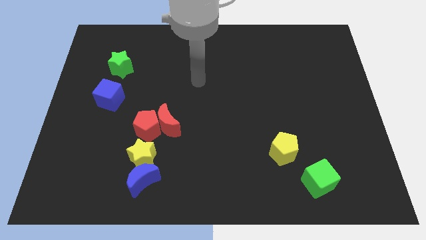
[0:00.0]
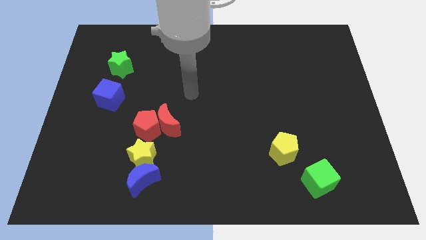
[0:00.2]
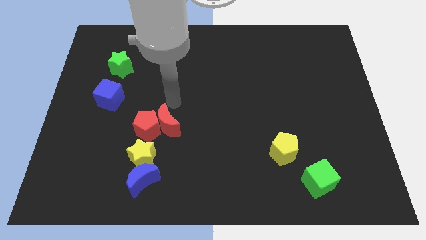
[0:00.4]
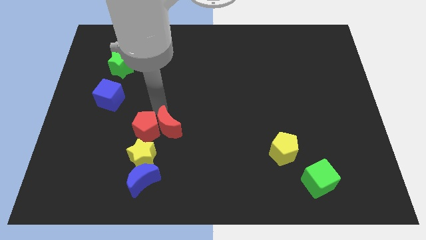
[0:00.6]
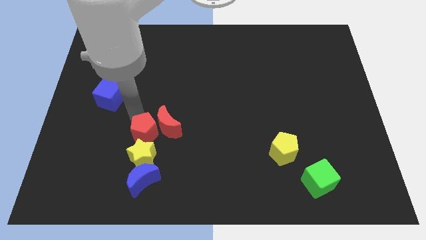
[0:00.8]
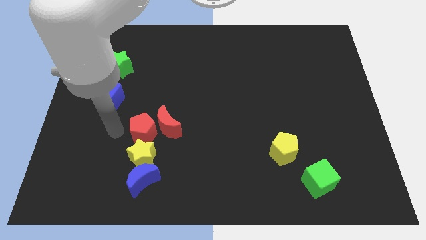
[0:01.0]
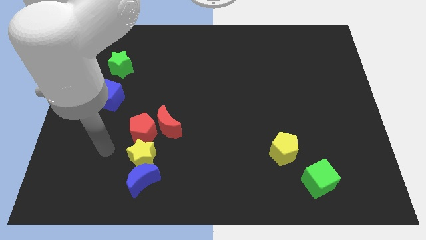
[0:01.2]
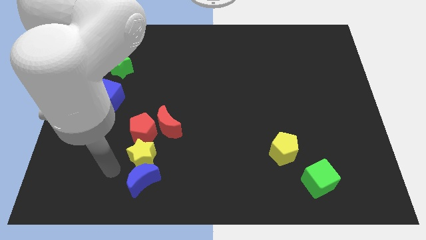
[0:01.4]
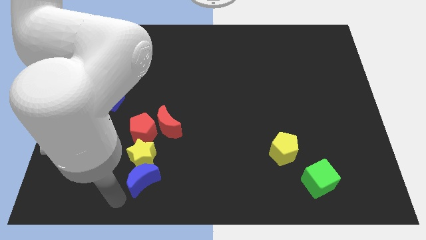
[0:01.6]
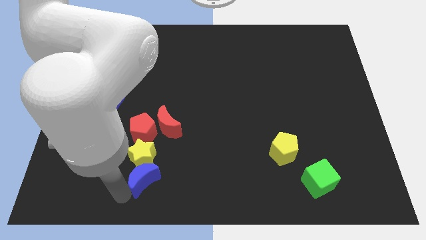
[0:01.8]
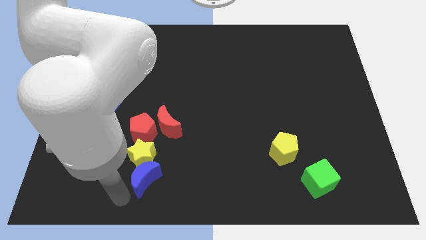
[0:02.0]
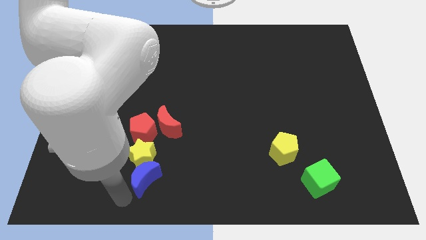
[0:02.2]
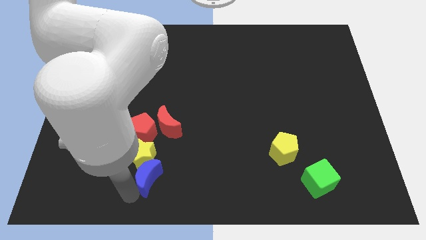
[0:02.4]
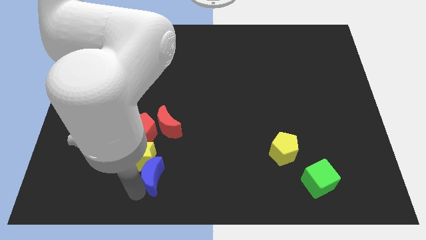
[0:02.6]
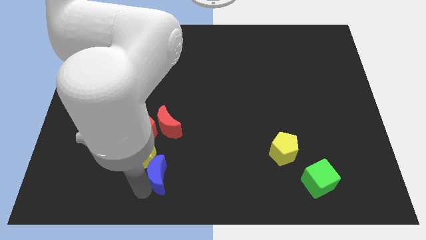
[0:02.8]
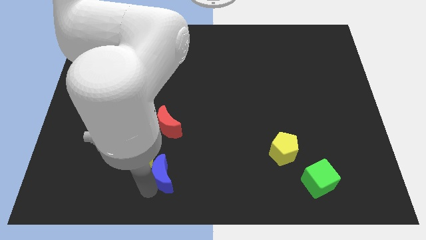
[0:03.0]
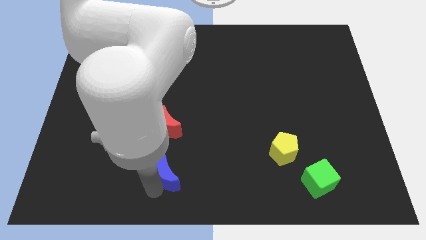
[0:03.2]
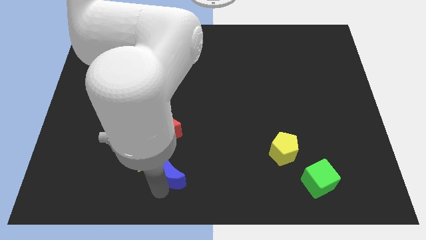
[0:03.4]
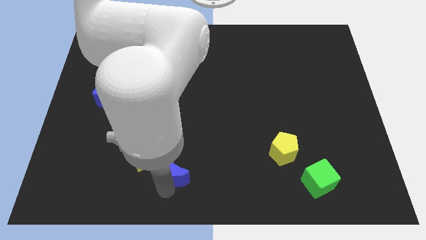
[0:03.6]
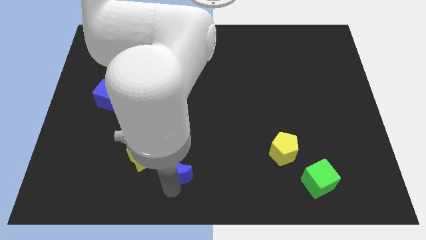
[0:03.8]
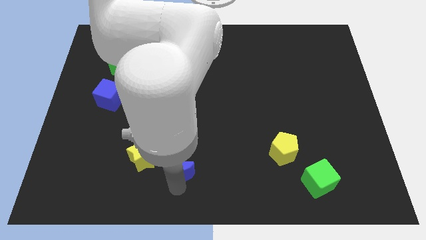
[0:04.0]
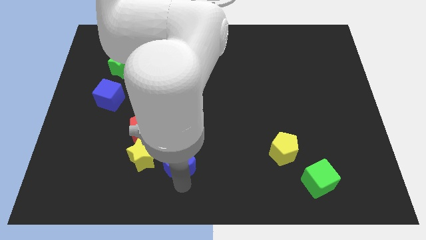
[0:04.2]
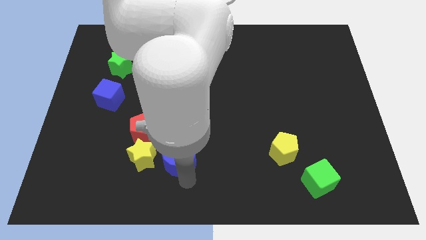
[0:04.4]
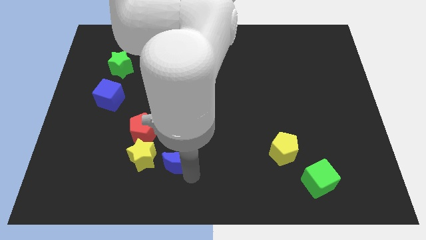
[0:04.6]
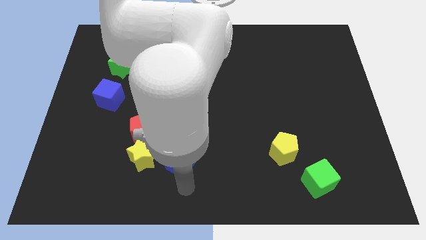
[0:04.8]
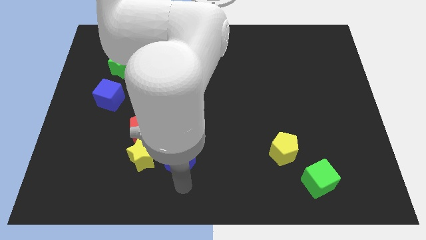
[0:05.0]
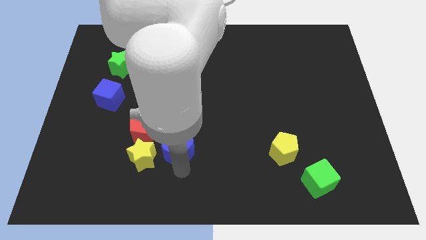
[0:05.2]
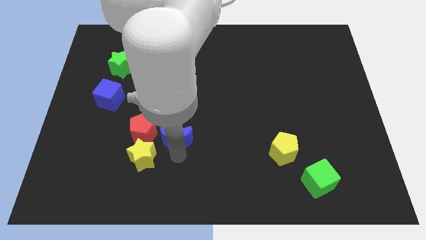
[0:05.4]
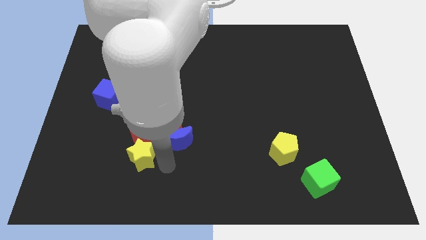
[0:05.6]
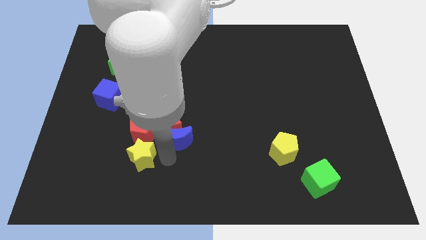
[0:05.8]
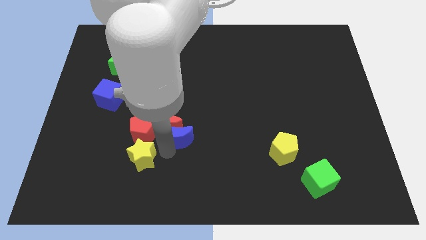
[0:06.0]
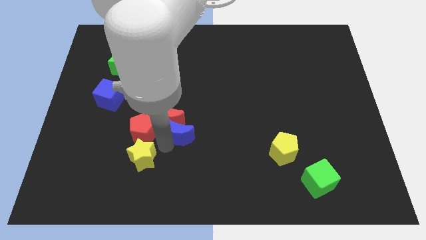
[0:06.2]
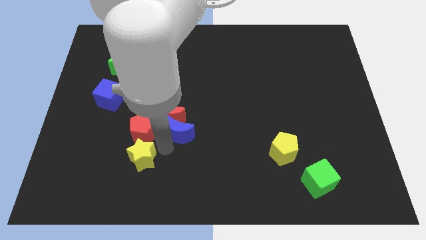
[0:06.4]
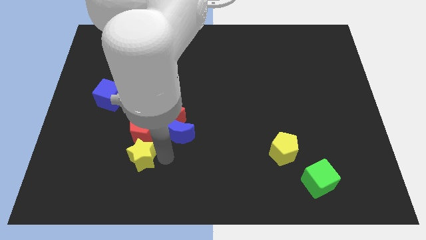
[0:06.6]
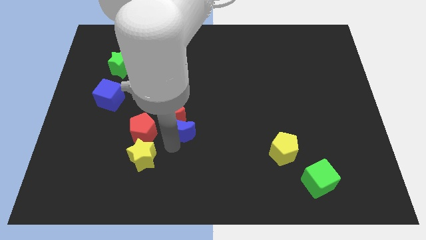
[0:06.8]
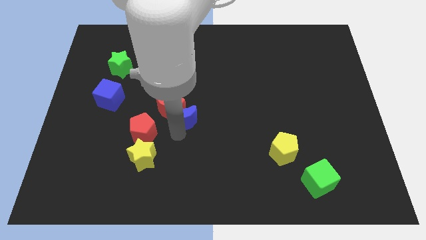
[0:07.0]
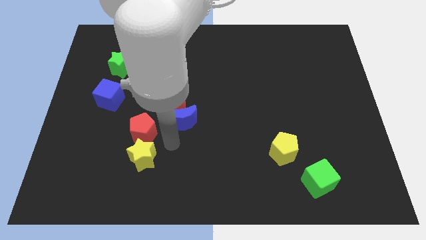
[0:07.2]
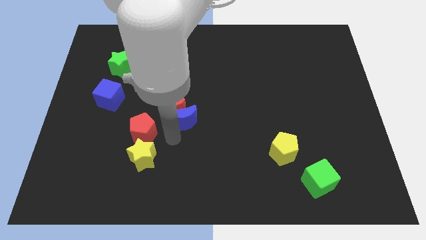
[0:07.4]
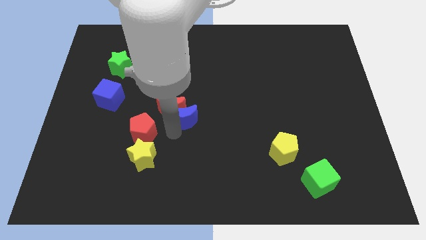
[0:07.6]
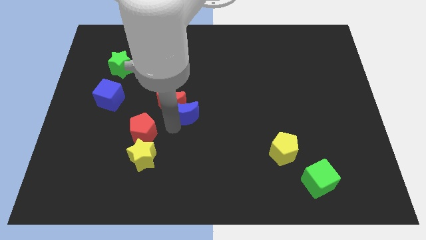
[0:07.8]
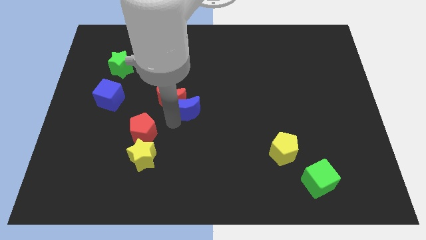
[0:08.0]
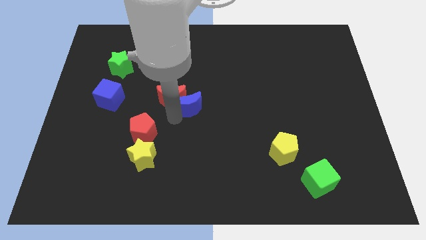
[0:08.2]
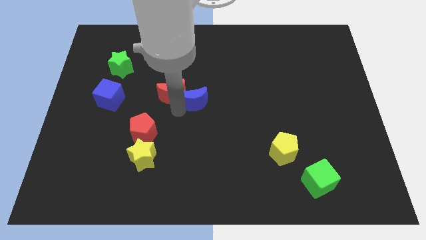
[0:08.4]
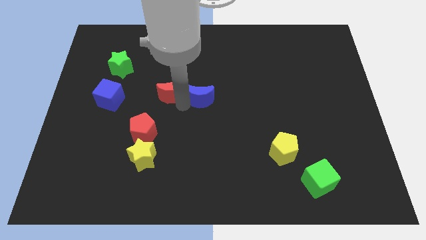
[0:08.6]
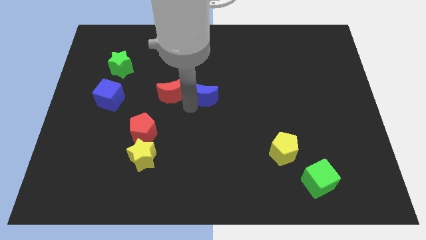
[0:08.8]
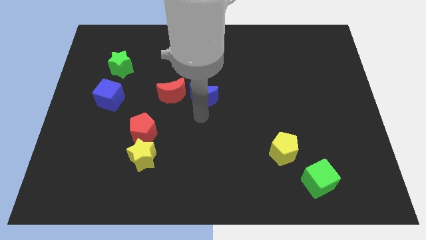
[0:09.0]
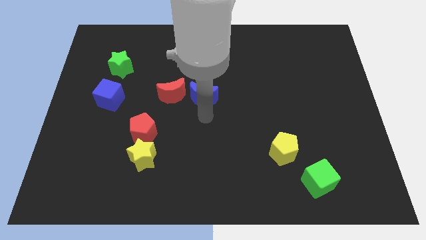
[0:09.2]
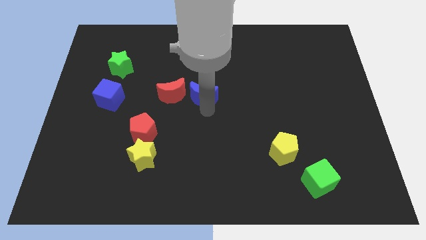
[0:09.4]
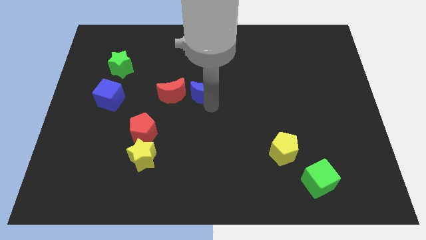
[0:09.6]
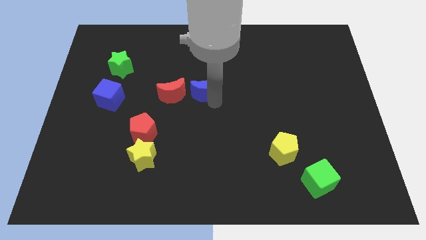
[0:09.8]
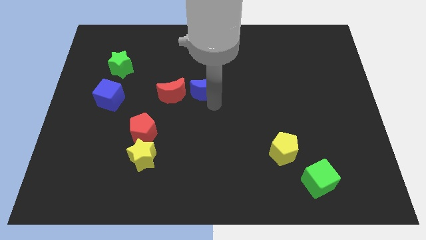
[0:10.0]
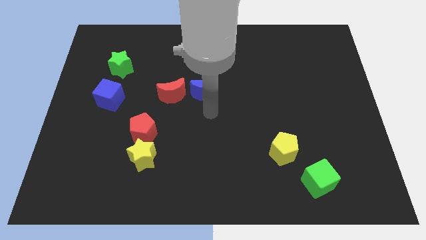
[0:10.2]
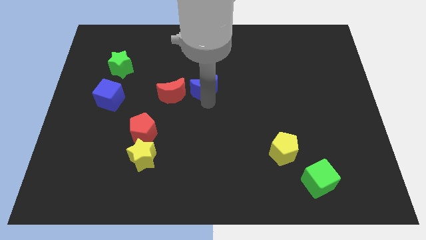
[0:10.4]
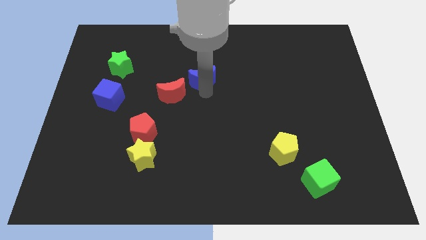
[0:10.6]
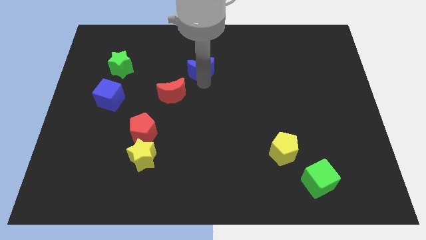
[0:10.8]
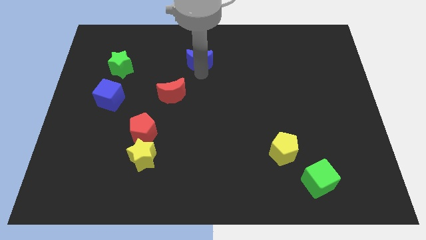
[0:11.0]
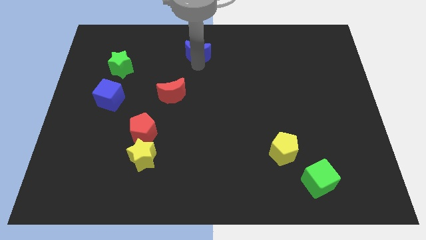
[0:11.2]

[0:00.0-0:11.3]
move the blue moon to the top

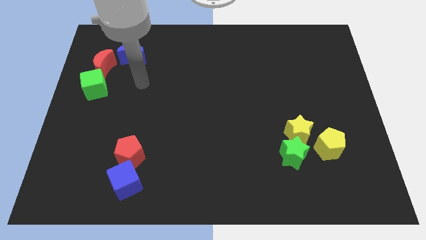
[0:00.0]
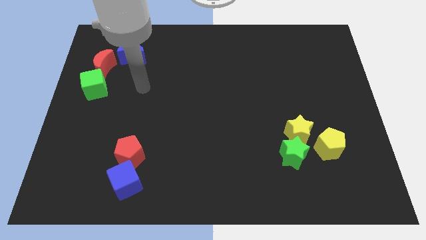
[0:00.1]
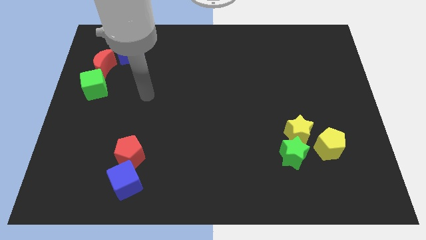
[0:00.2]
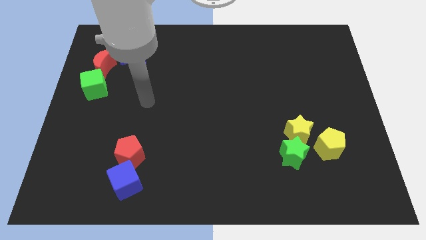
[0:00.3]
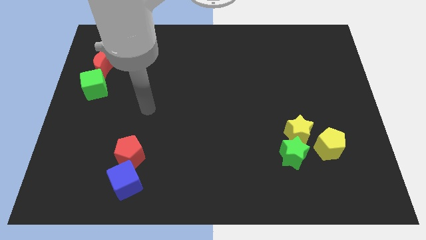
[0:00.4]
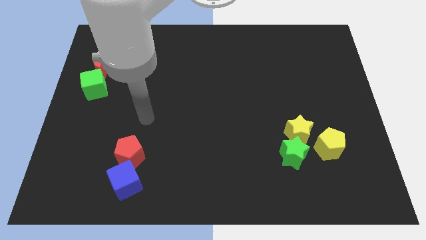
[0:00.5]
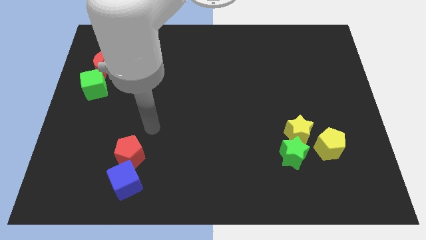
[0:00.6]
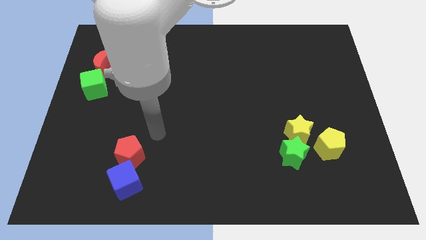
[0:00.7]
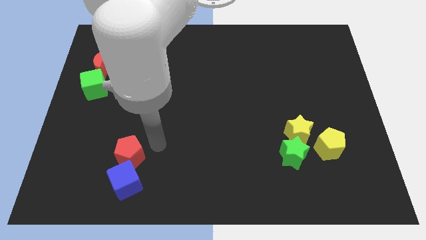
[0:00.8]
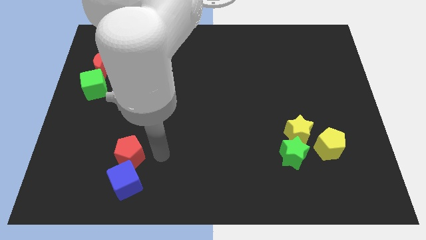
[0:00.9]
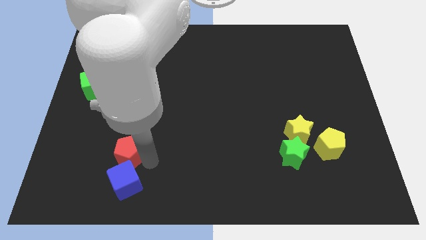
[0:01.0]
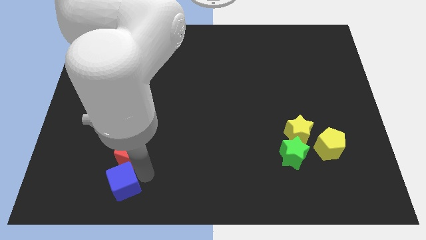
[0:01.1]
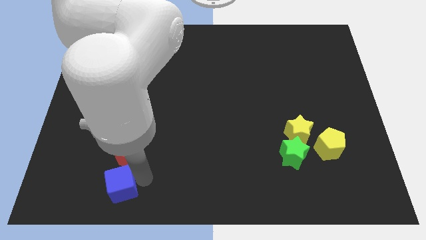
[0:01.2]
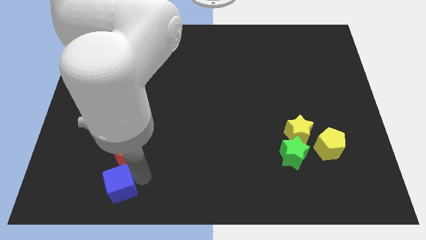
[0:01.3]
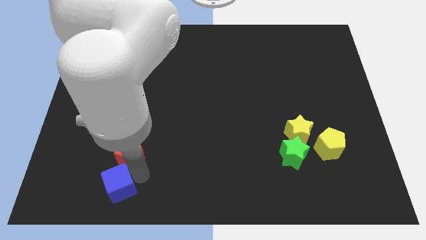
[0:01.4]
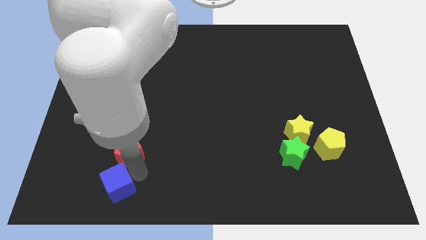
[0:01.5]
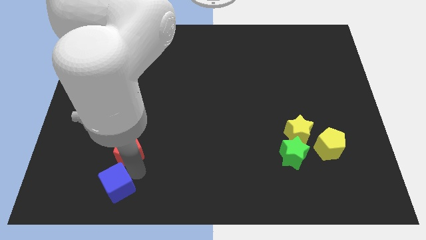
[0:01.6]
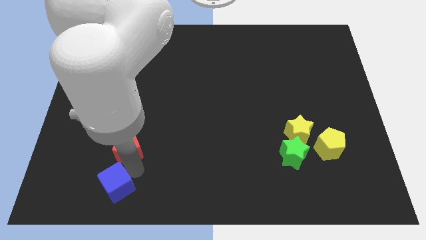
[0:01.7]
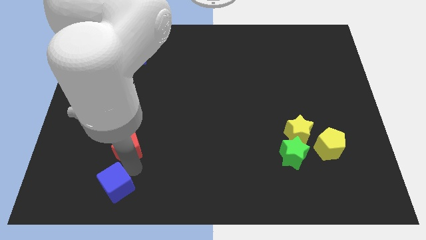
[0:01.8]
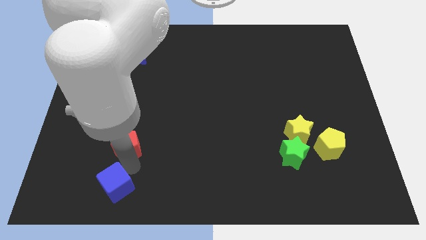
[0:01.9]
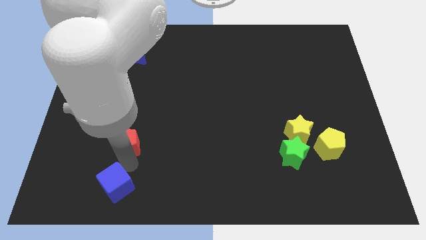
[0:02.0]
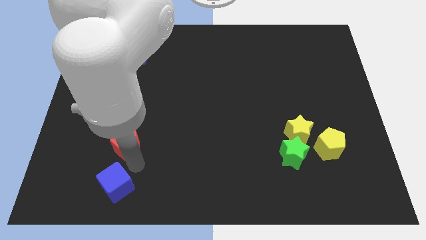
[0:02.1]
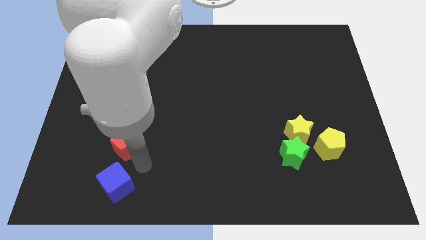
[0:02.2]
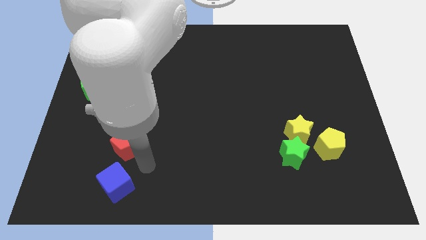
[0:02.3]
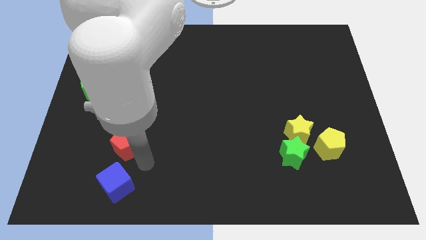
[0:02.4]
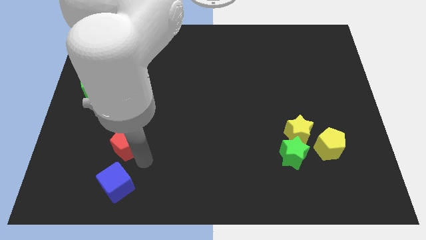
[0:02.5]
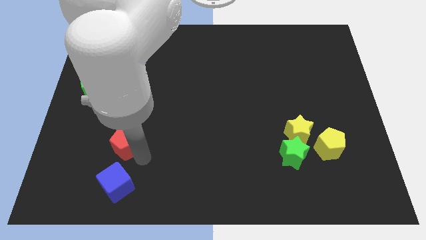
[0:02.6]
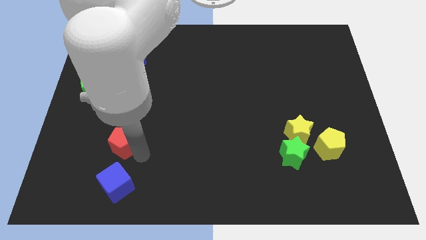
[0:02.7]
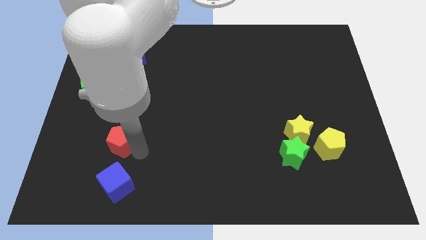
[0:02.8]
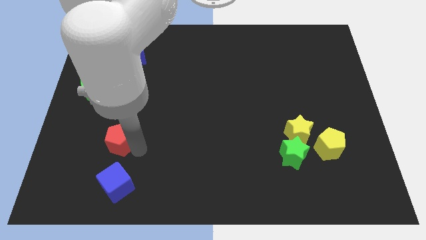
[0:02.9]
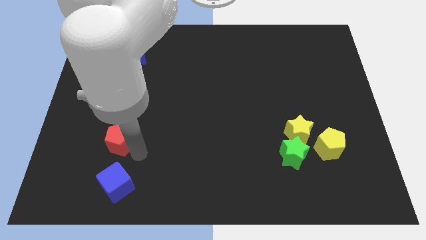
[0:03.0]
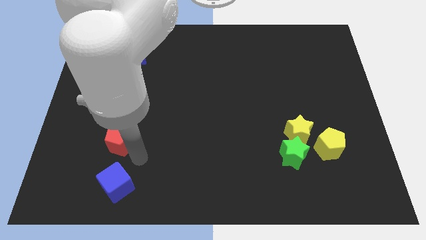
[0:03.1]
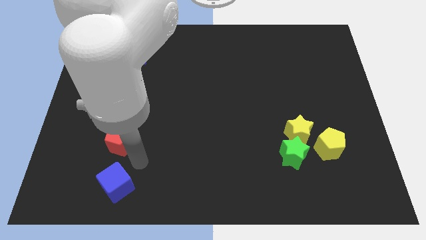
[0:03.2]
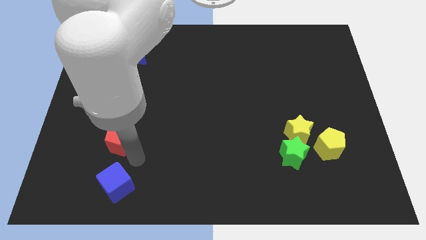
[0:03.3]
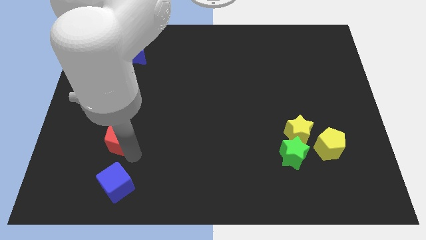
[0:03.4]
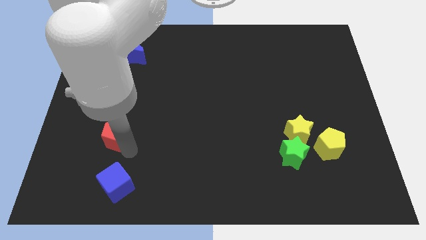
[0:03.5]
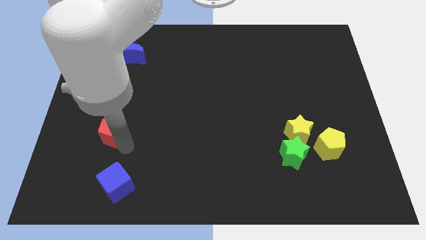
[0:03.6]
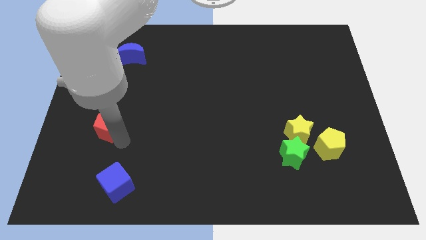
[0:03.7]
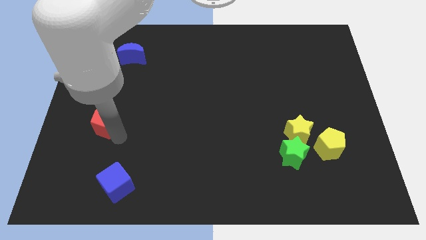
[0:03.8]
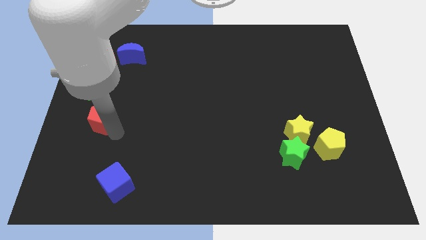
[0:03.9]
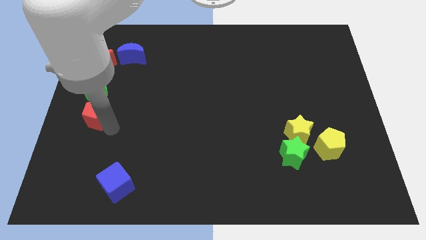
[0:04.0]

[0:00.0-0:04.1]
push the red pentagon to the left side of the board
